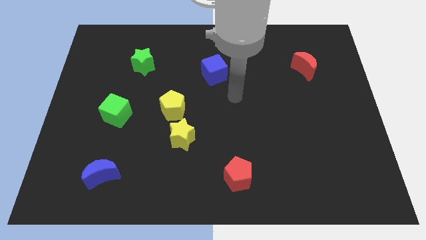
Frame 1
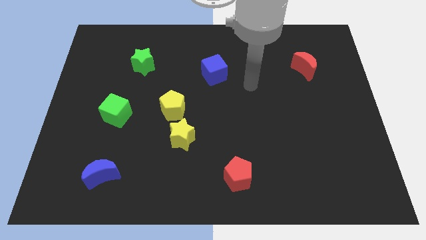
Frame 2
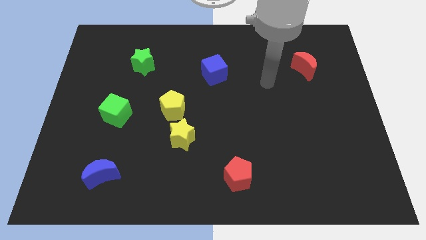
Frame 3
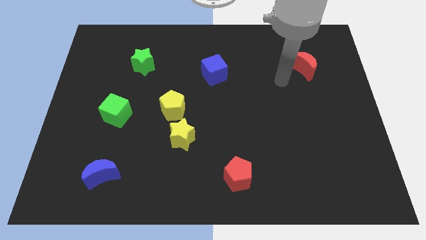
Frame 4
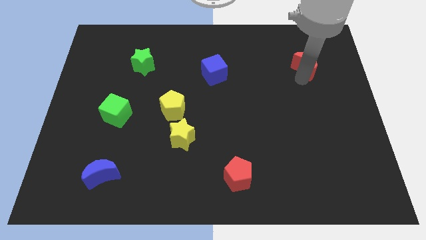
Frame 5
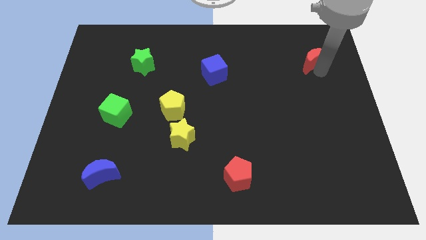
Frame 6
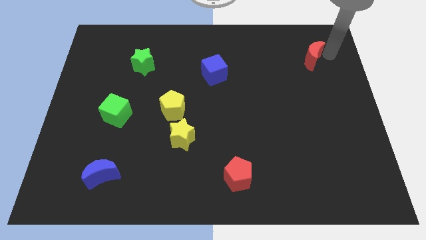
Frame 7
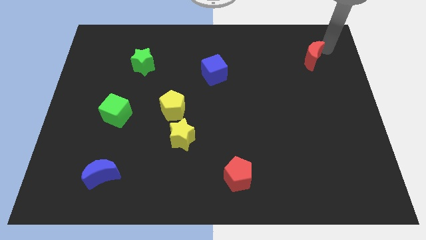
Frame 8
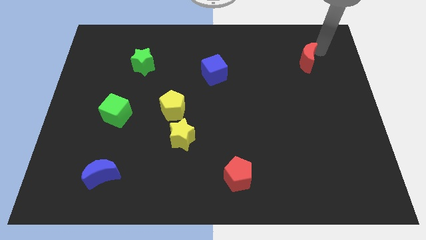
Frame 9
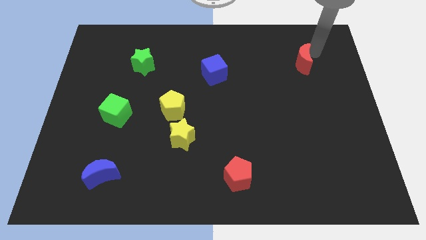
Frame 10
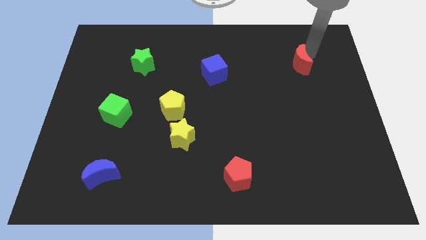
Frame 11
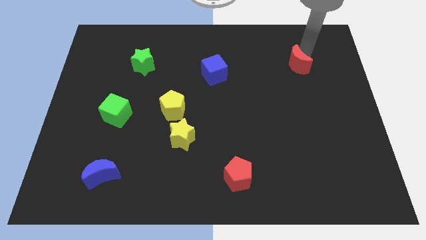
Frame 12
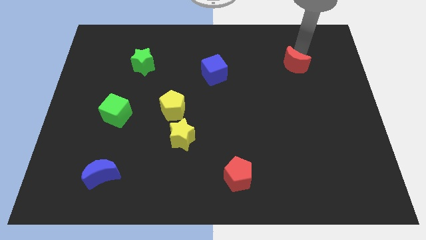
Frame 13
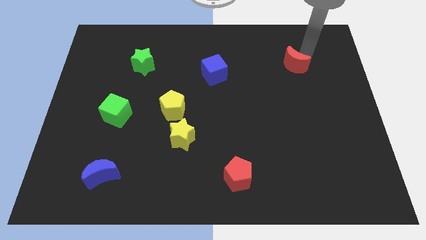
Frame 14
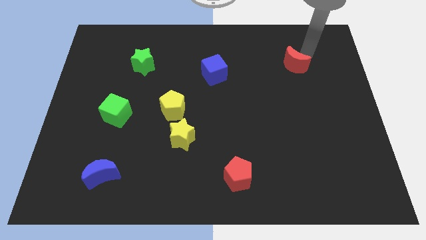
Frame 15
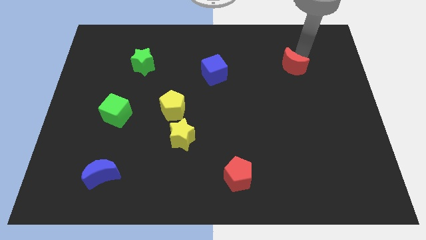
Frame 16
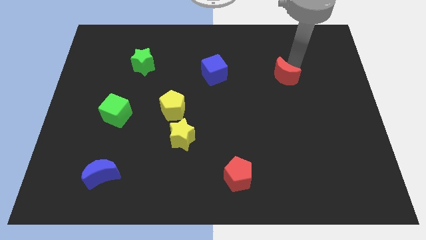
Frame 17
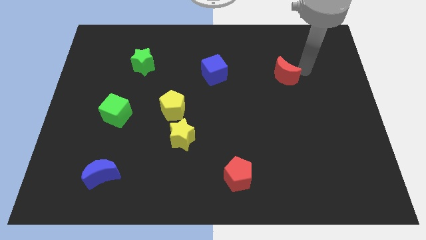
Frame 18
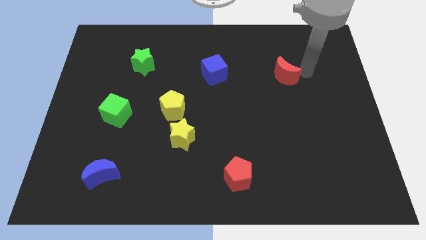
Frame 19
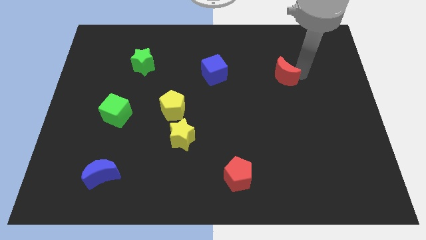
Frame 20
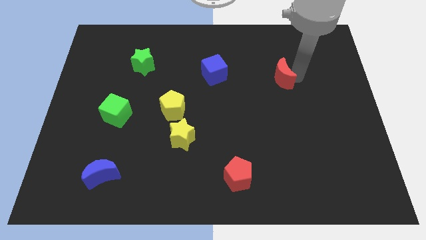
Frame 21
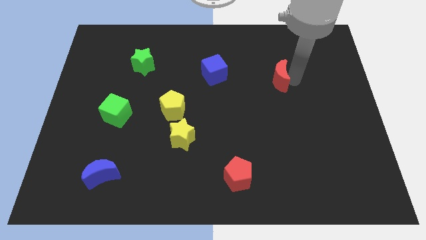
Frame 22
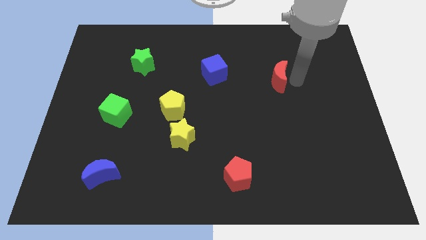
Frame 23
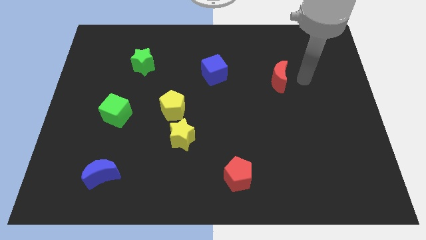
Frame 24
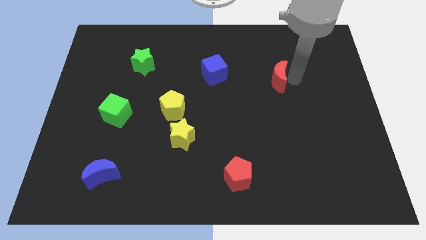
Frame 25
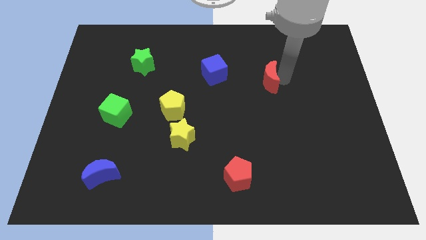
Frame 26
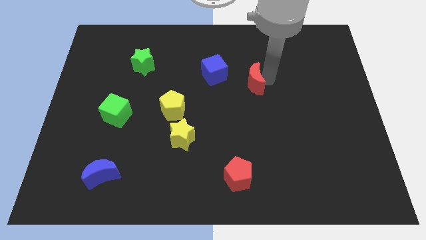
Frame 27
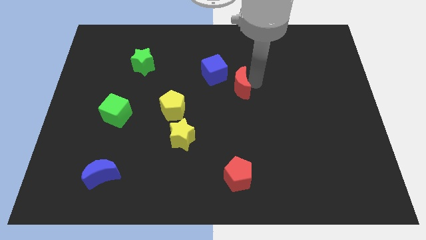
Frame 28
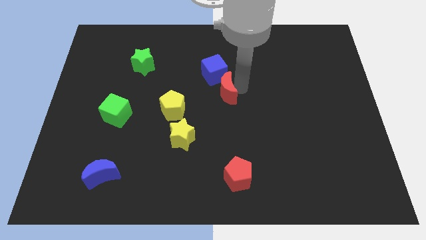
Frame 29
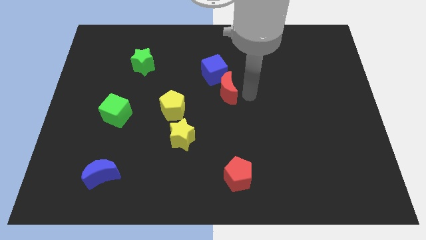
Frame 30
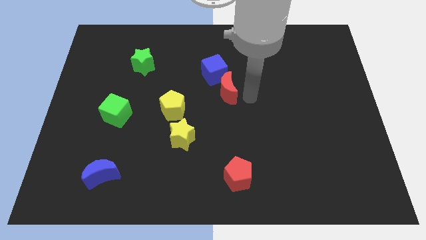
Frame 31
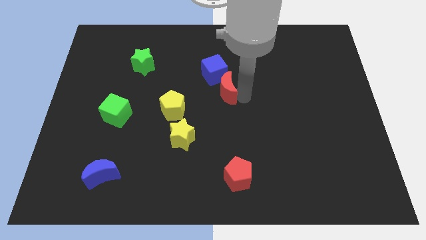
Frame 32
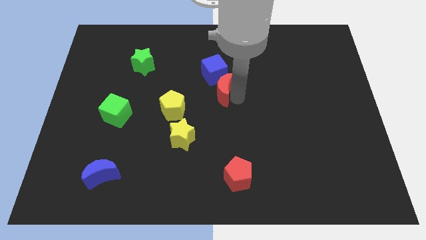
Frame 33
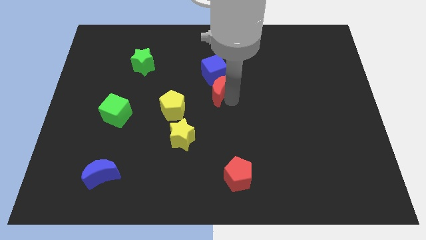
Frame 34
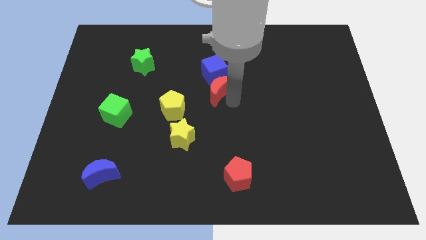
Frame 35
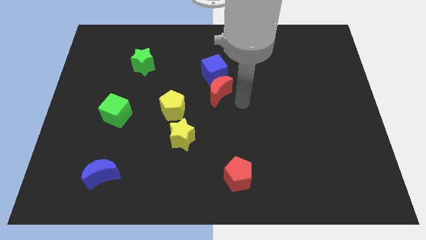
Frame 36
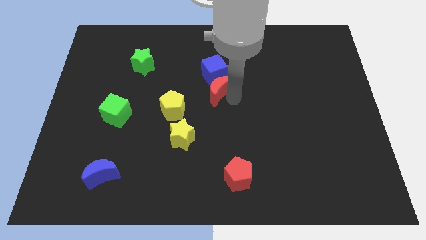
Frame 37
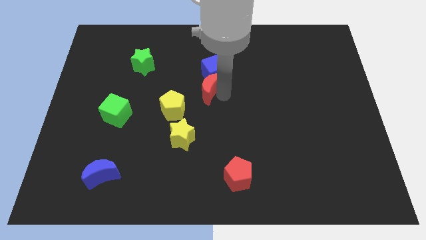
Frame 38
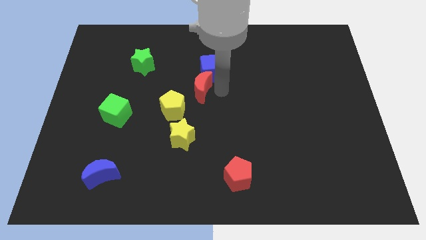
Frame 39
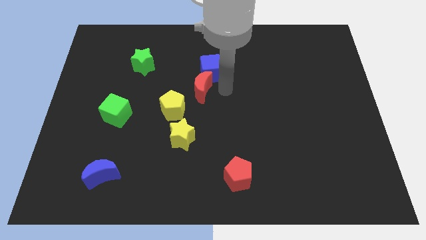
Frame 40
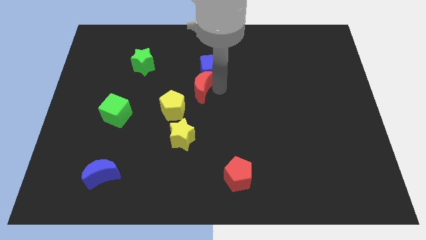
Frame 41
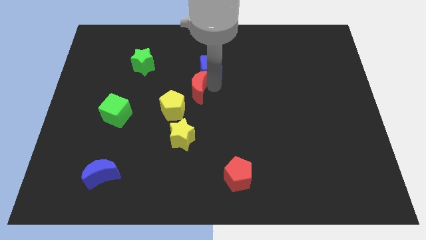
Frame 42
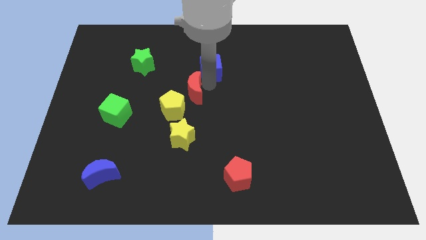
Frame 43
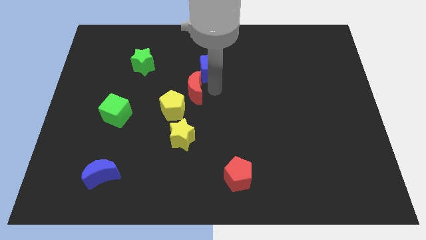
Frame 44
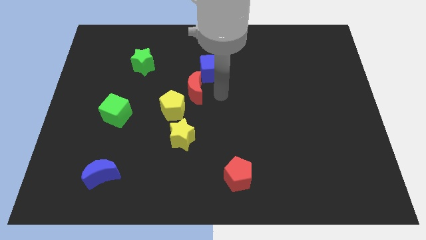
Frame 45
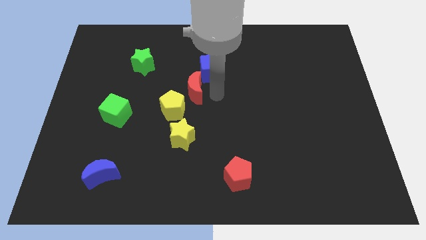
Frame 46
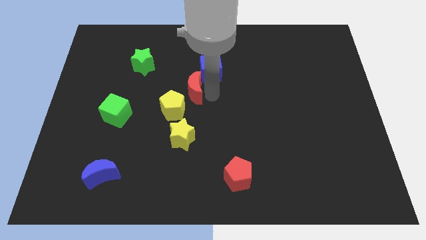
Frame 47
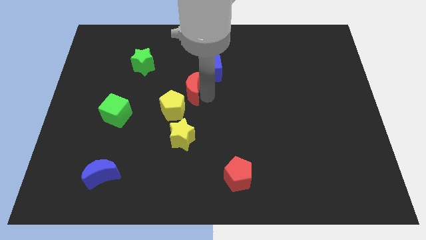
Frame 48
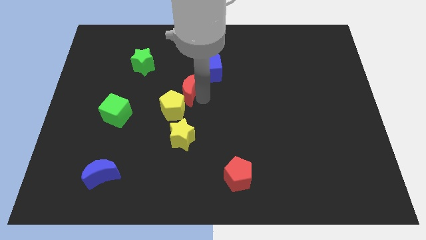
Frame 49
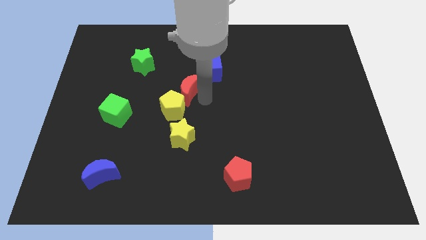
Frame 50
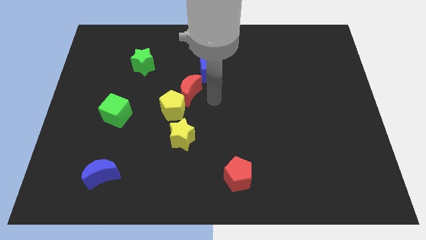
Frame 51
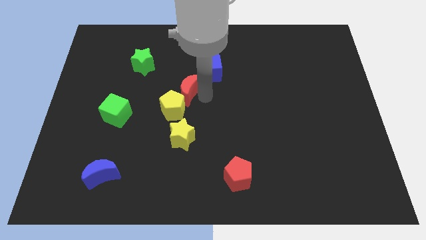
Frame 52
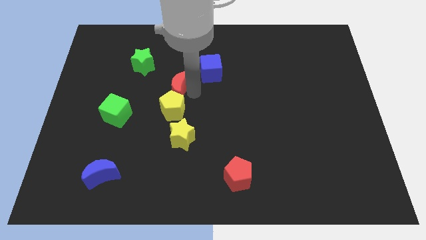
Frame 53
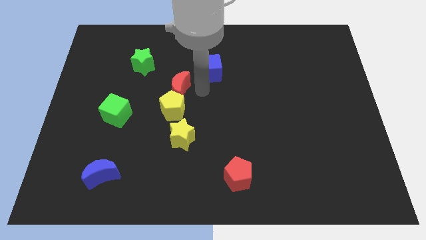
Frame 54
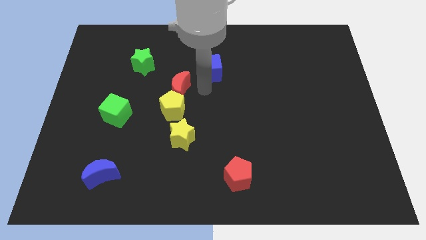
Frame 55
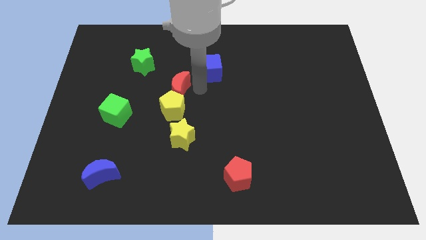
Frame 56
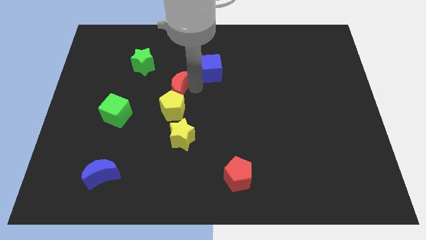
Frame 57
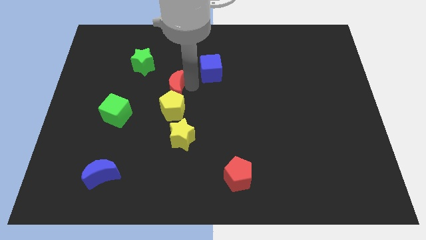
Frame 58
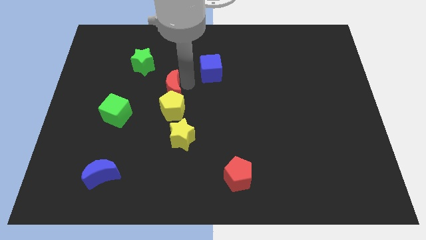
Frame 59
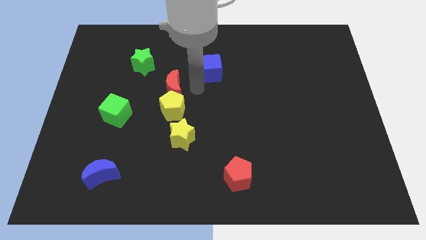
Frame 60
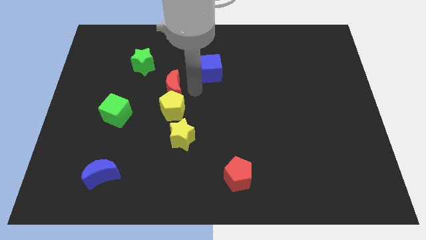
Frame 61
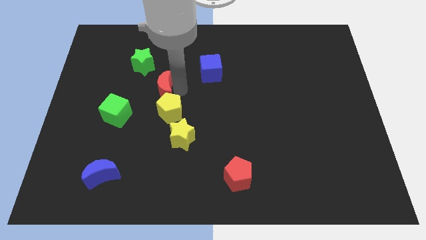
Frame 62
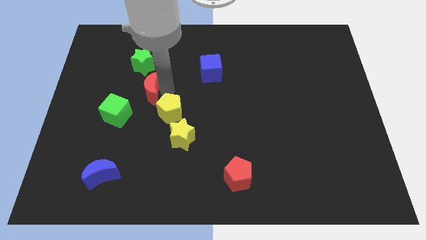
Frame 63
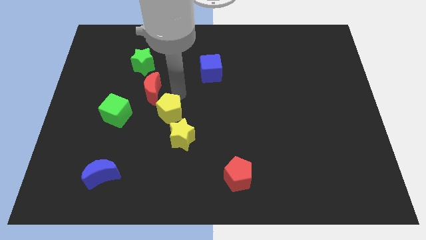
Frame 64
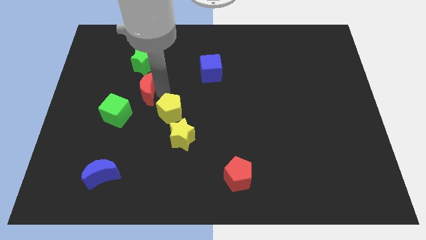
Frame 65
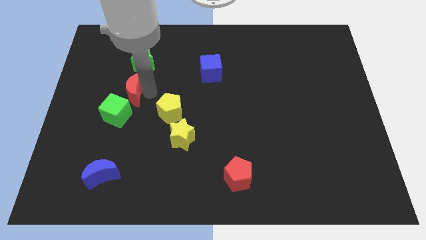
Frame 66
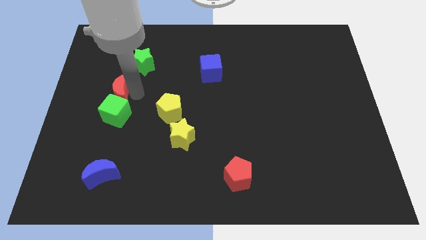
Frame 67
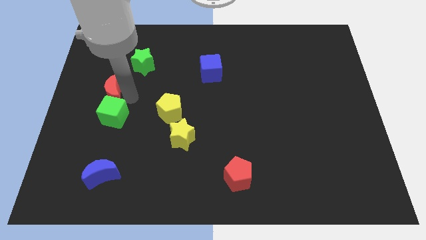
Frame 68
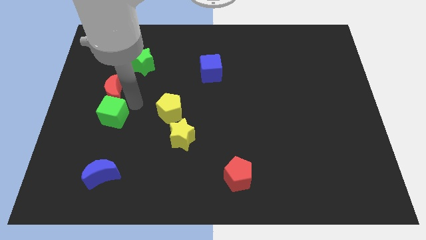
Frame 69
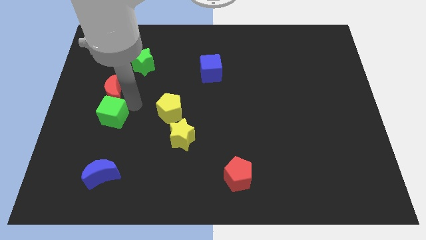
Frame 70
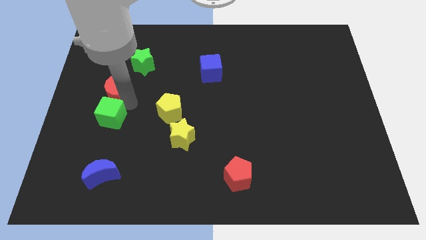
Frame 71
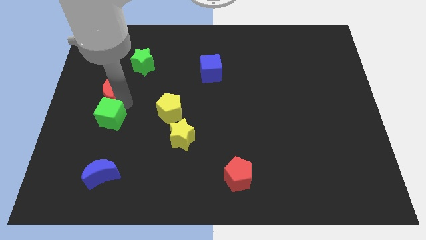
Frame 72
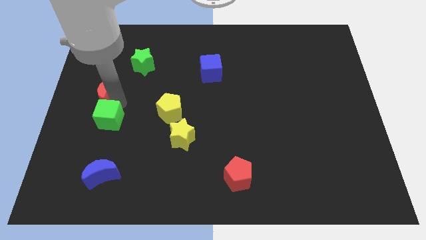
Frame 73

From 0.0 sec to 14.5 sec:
slide the red moon to the center left
